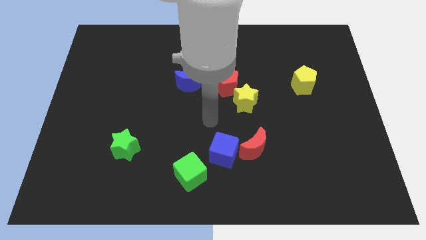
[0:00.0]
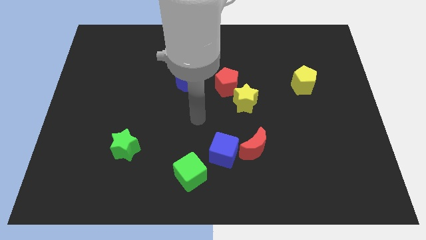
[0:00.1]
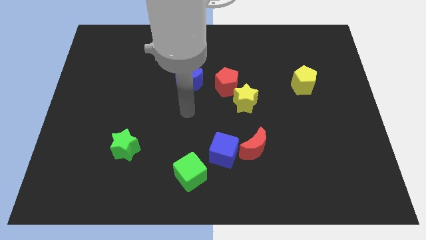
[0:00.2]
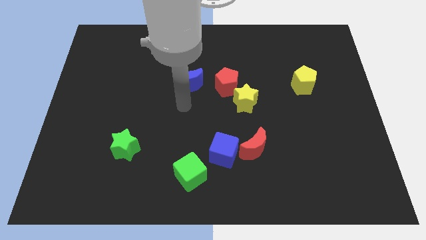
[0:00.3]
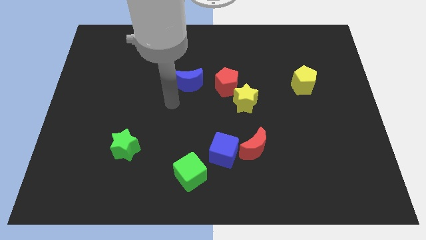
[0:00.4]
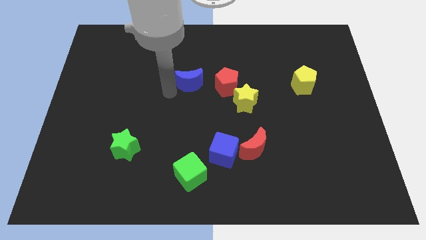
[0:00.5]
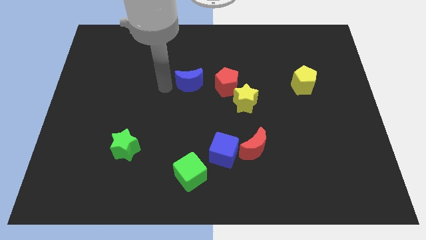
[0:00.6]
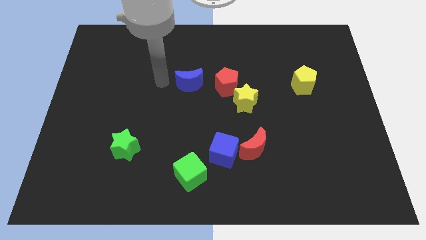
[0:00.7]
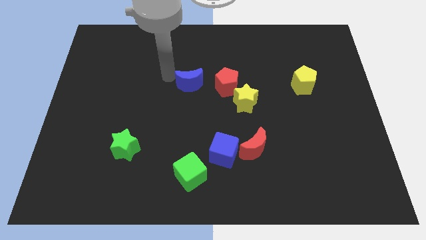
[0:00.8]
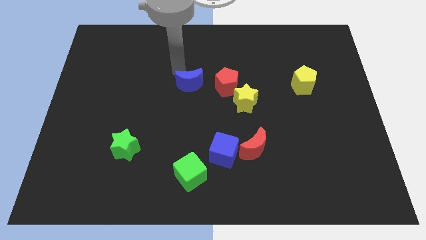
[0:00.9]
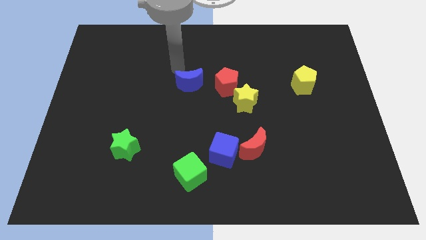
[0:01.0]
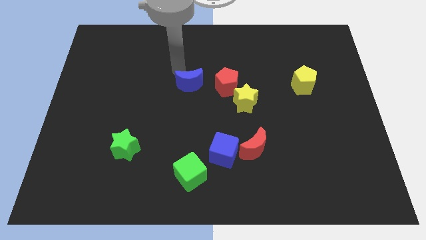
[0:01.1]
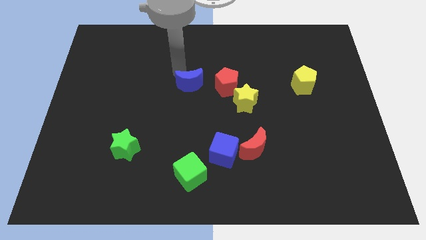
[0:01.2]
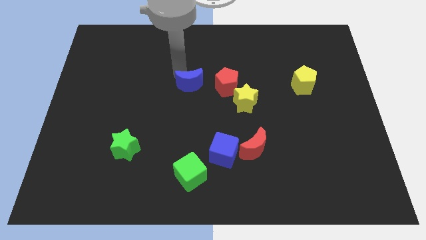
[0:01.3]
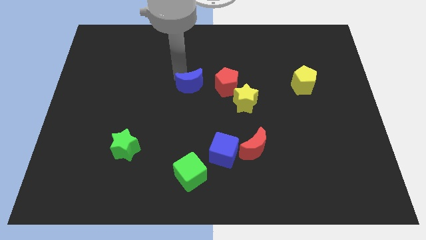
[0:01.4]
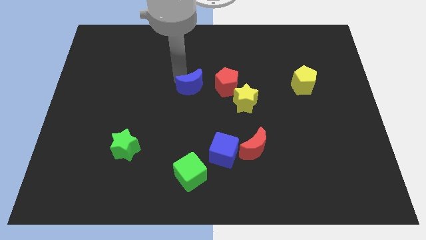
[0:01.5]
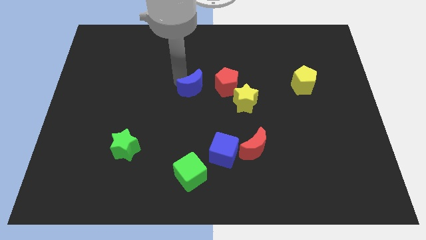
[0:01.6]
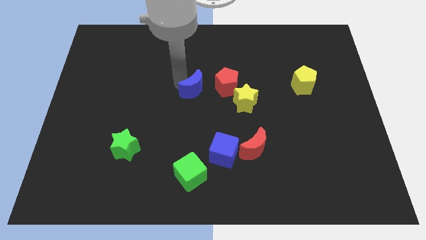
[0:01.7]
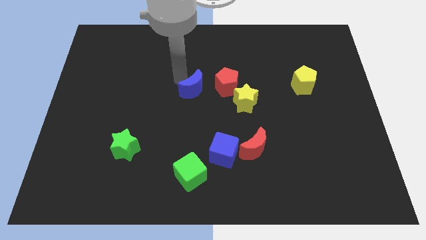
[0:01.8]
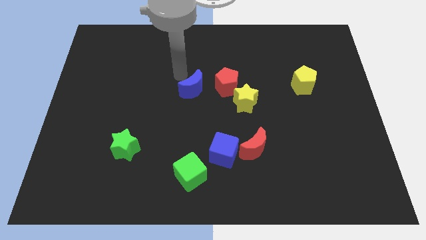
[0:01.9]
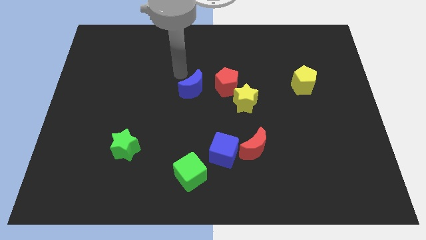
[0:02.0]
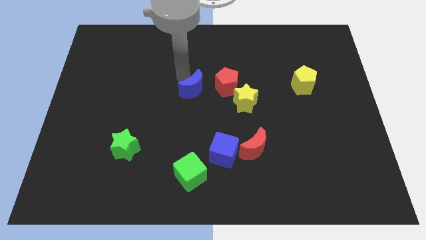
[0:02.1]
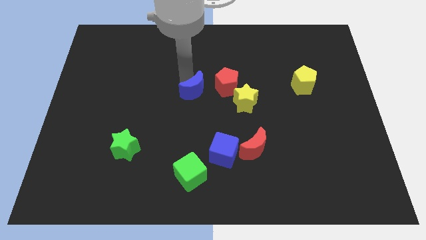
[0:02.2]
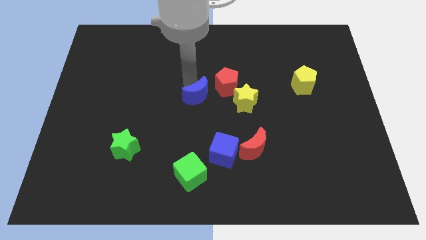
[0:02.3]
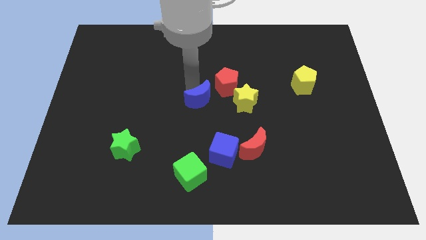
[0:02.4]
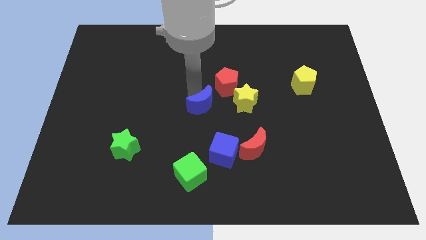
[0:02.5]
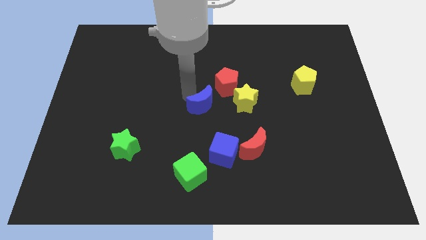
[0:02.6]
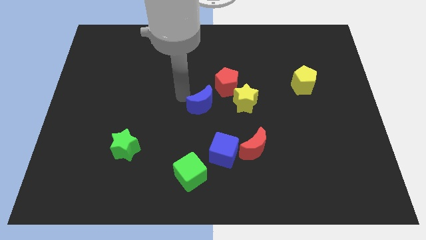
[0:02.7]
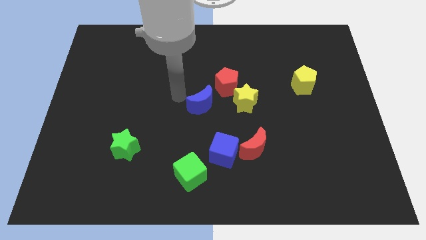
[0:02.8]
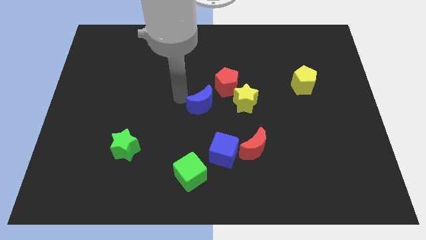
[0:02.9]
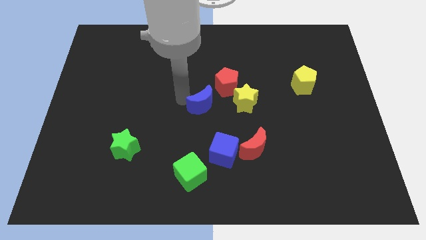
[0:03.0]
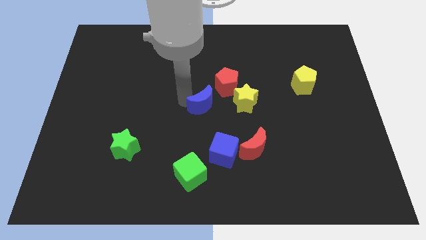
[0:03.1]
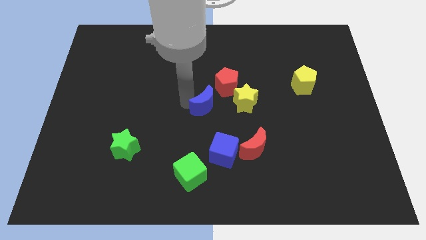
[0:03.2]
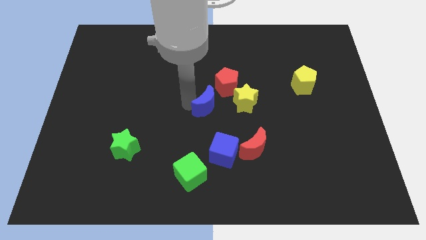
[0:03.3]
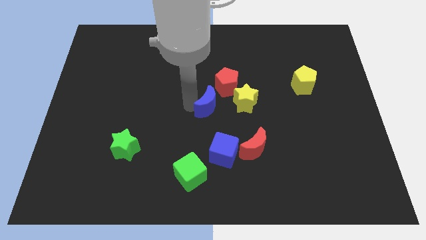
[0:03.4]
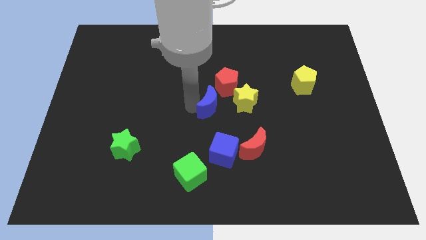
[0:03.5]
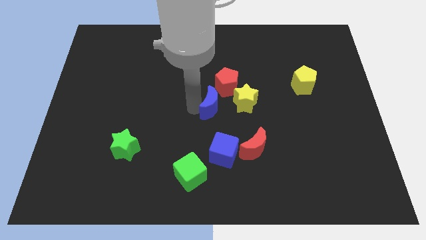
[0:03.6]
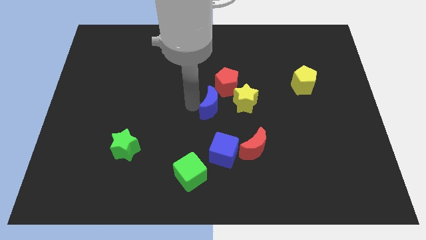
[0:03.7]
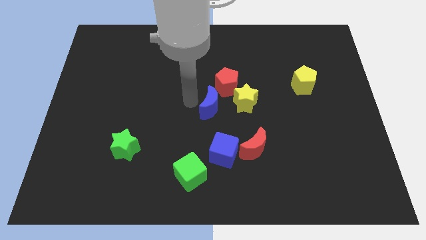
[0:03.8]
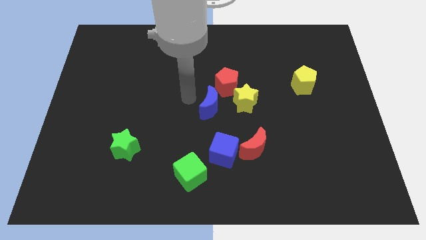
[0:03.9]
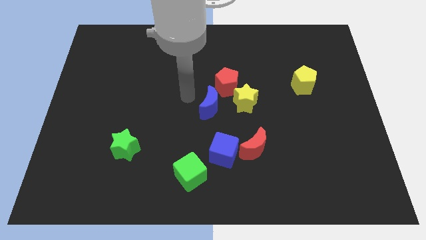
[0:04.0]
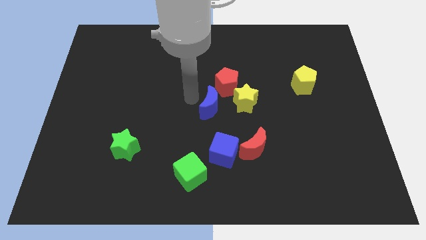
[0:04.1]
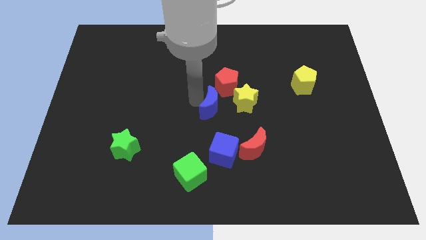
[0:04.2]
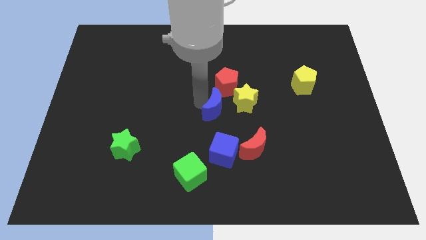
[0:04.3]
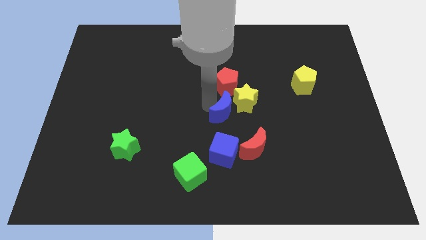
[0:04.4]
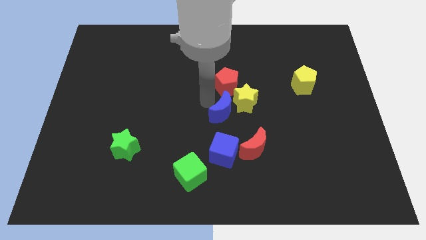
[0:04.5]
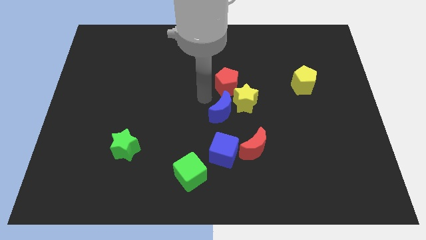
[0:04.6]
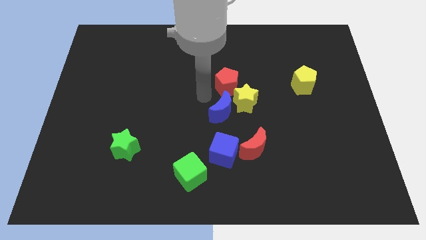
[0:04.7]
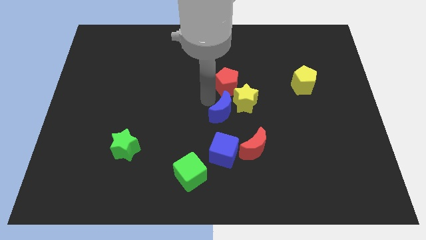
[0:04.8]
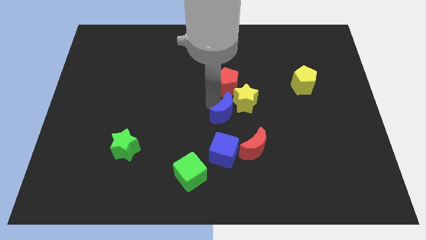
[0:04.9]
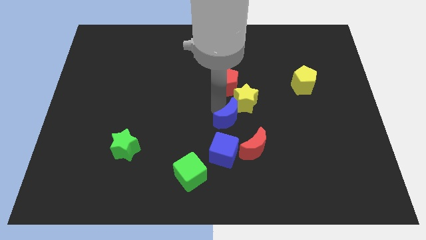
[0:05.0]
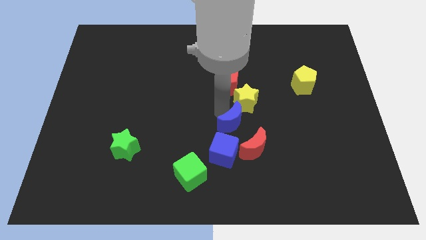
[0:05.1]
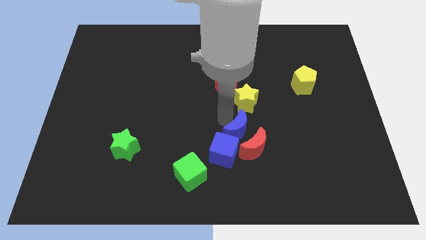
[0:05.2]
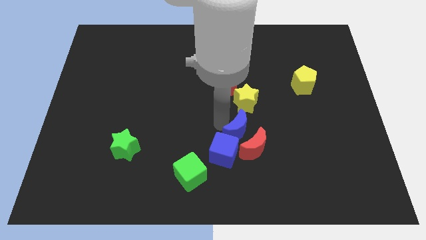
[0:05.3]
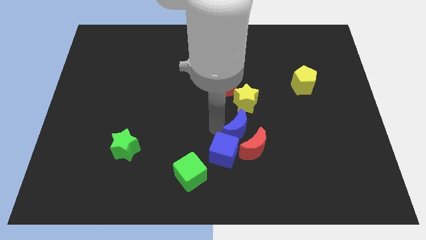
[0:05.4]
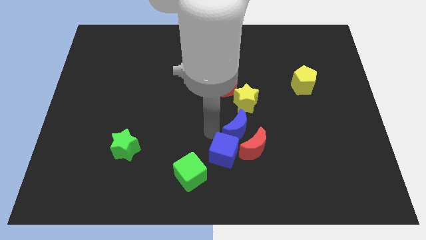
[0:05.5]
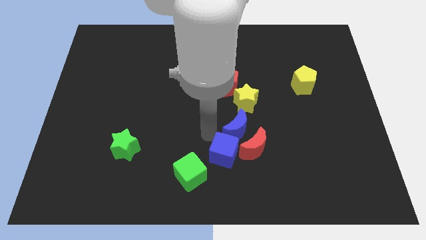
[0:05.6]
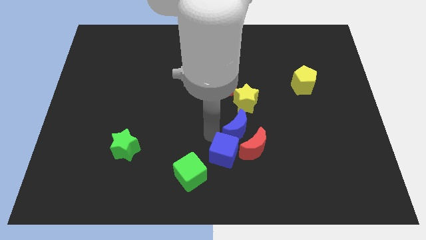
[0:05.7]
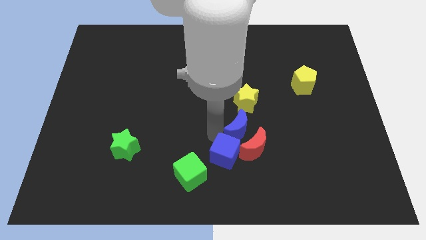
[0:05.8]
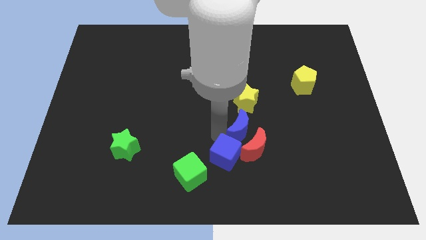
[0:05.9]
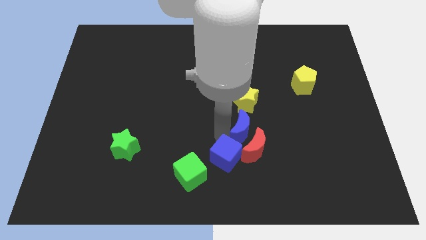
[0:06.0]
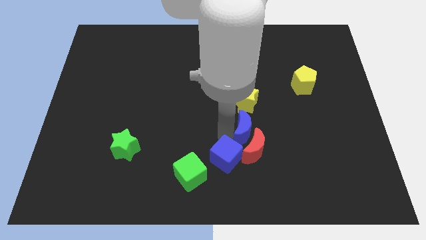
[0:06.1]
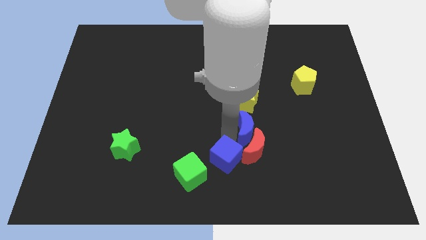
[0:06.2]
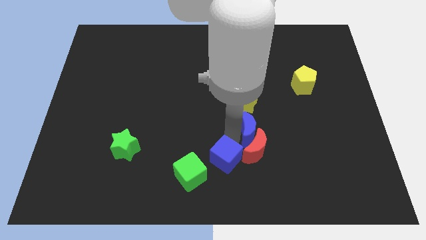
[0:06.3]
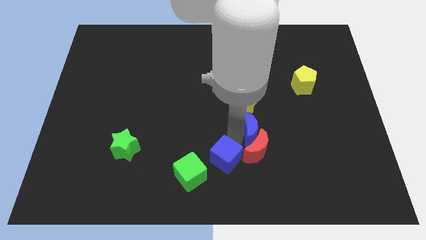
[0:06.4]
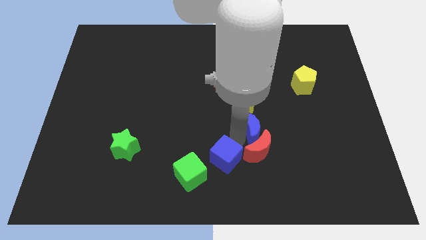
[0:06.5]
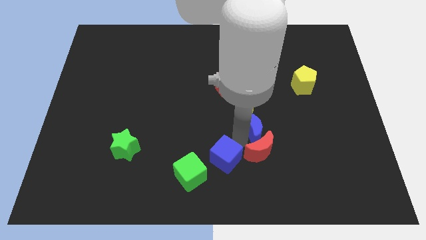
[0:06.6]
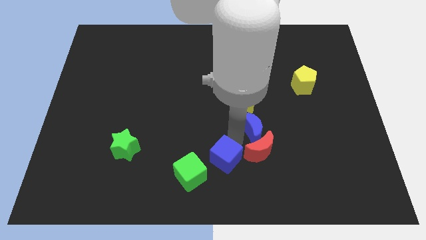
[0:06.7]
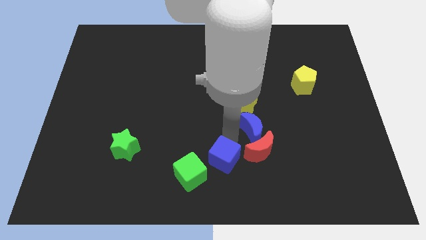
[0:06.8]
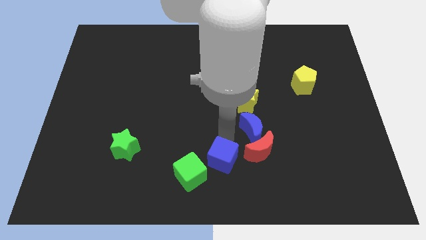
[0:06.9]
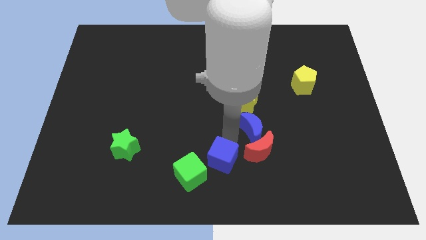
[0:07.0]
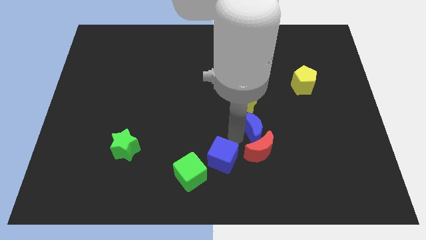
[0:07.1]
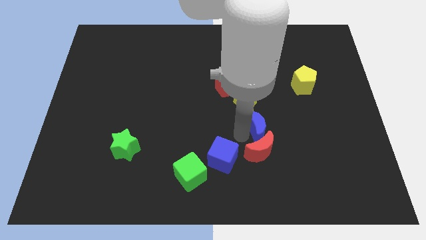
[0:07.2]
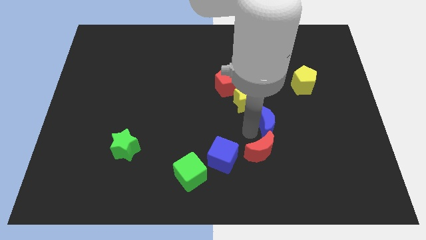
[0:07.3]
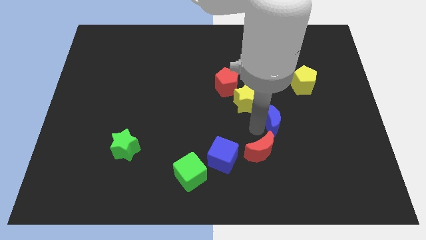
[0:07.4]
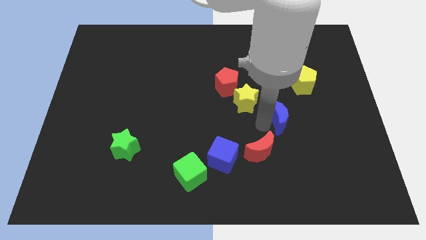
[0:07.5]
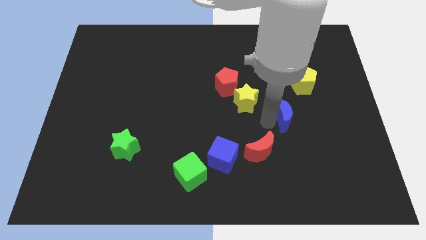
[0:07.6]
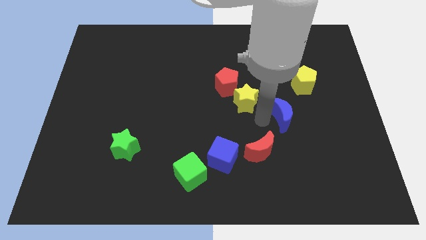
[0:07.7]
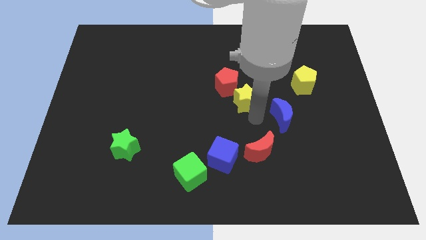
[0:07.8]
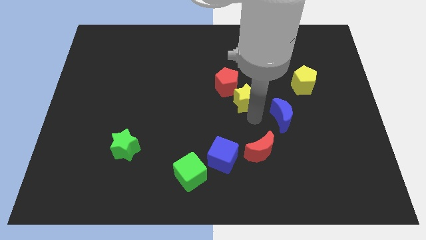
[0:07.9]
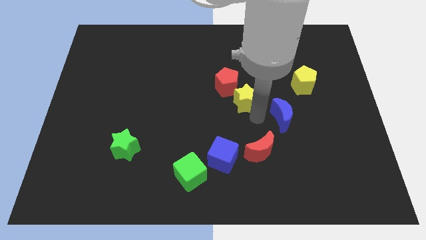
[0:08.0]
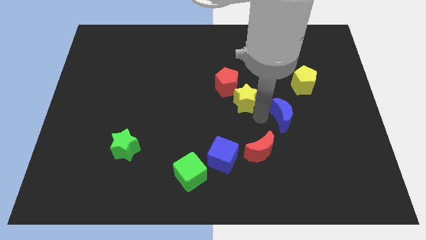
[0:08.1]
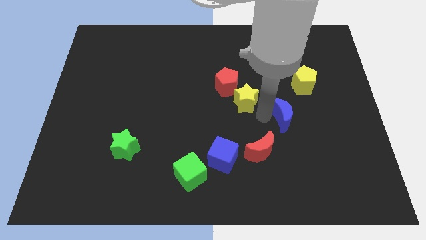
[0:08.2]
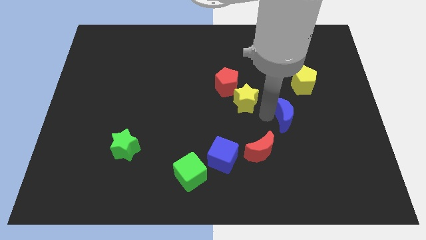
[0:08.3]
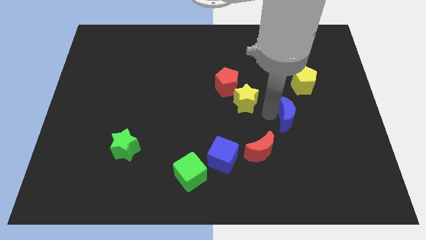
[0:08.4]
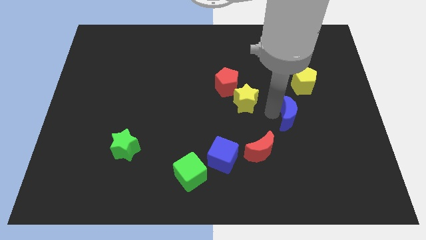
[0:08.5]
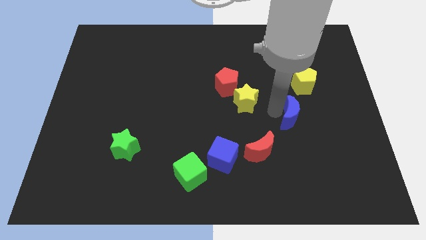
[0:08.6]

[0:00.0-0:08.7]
put the blue moon below the yellow pentagon
